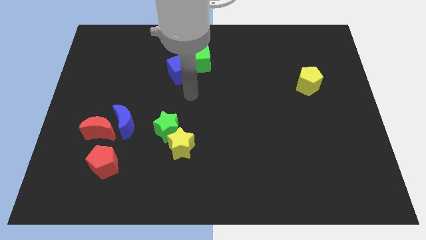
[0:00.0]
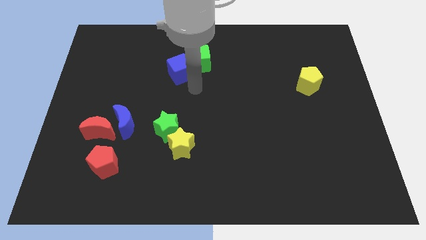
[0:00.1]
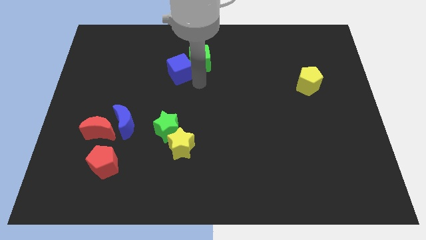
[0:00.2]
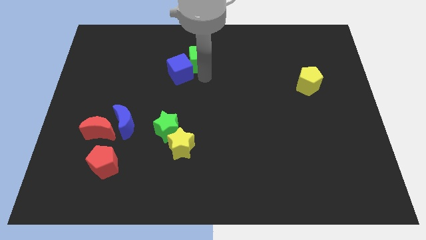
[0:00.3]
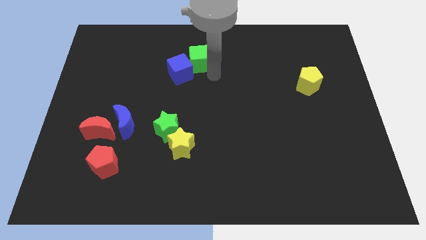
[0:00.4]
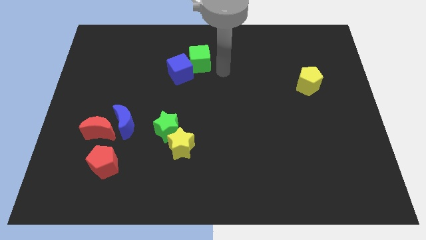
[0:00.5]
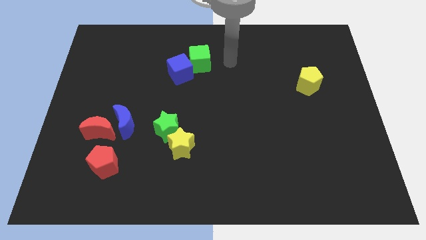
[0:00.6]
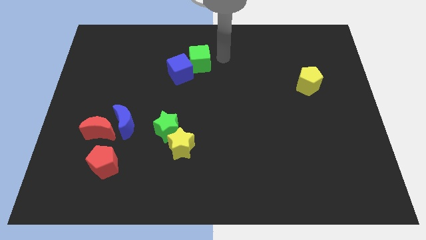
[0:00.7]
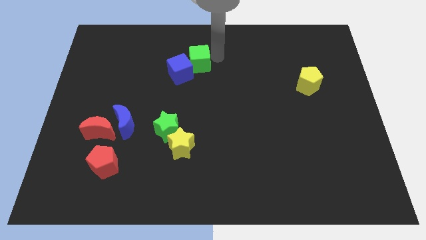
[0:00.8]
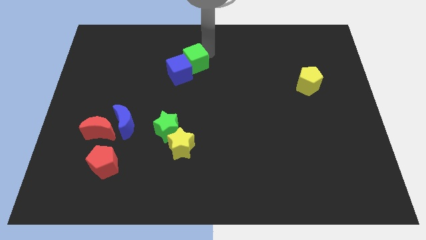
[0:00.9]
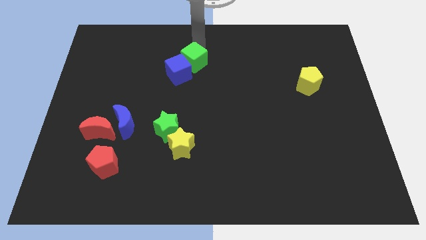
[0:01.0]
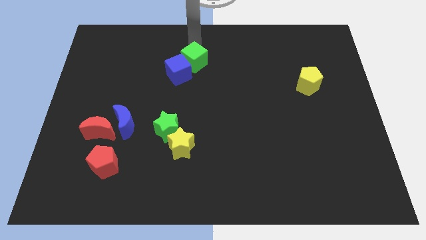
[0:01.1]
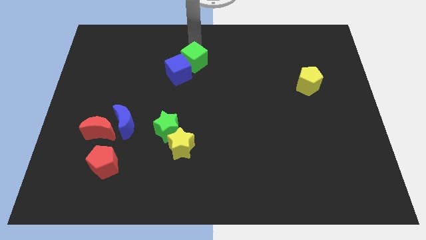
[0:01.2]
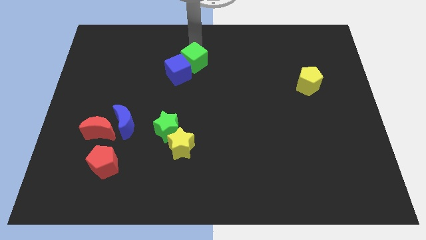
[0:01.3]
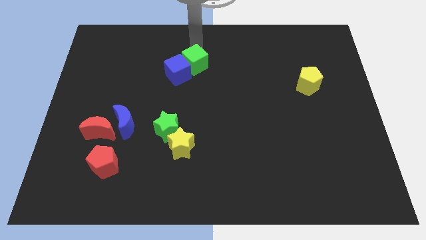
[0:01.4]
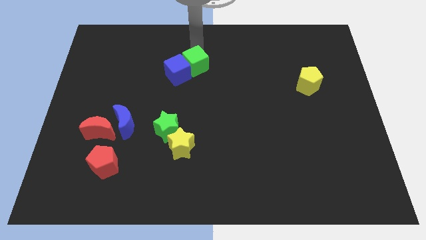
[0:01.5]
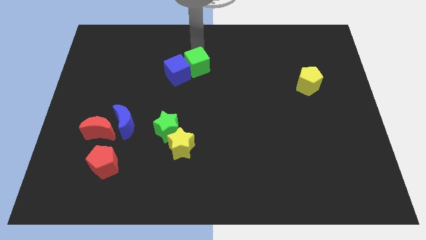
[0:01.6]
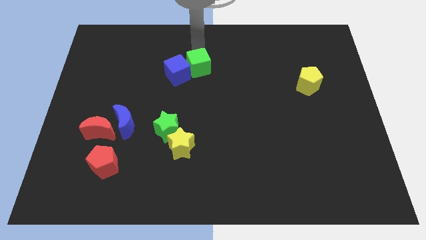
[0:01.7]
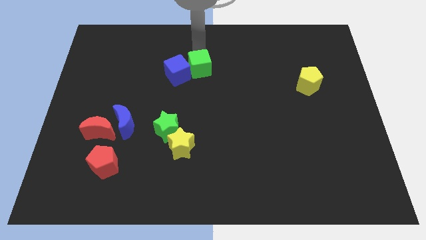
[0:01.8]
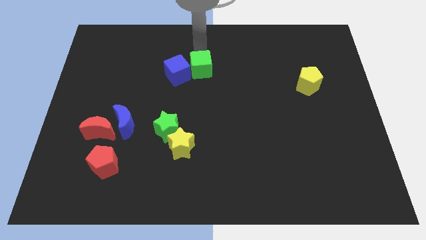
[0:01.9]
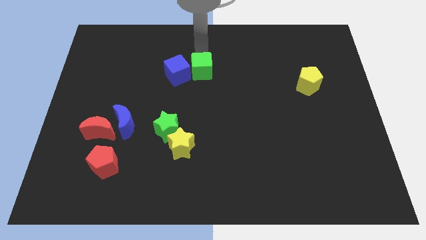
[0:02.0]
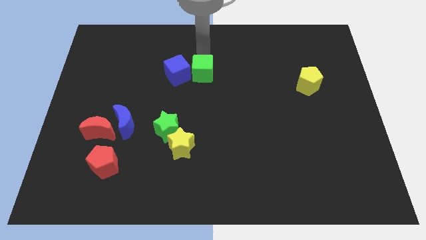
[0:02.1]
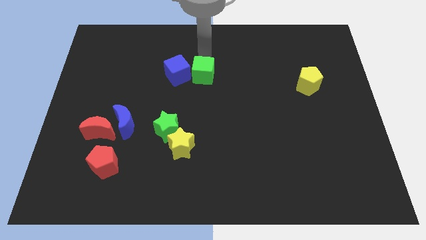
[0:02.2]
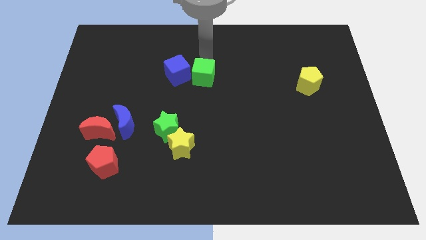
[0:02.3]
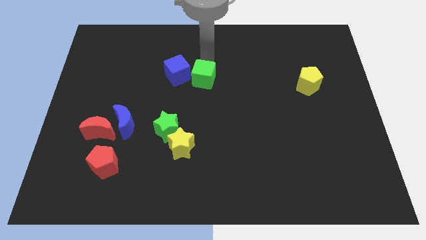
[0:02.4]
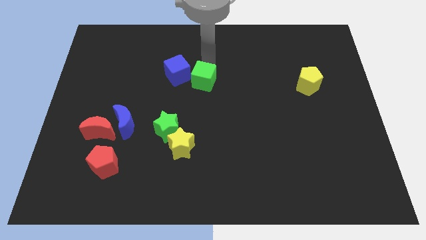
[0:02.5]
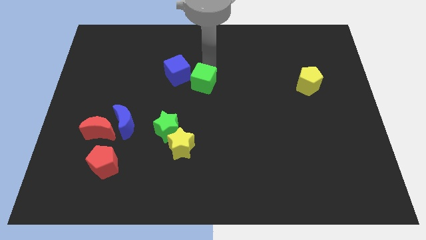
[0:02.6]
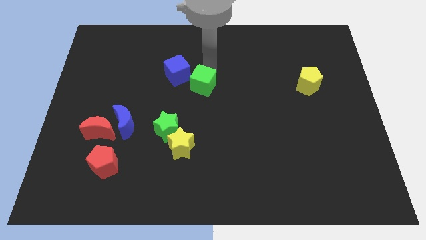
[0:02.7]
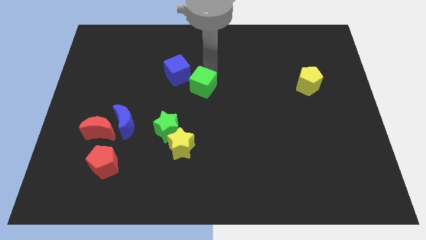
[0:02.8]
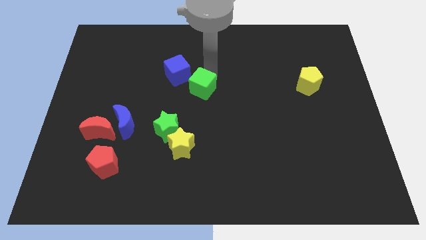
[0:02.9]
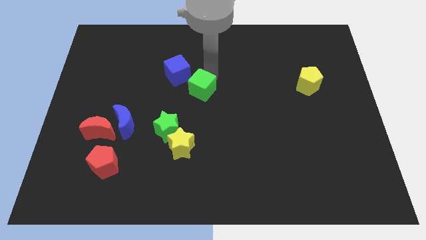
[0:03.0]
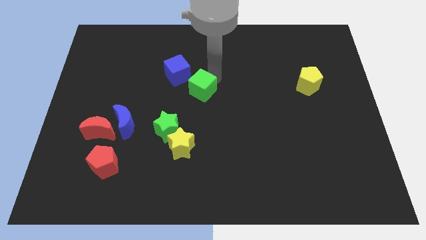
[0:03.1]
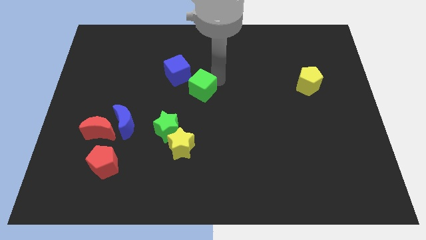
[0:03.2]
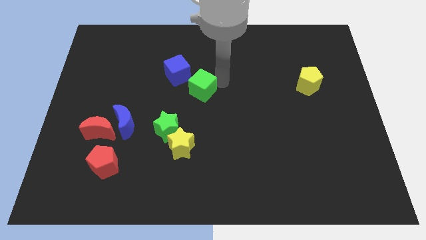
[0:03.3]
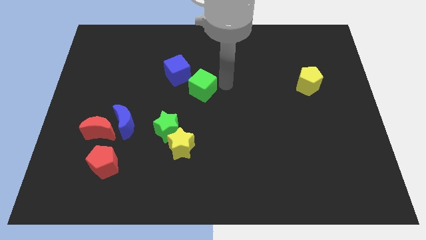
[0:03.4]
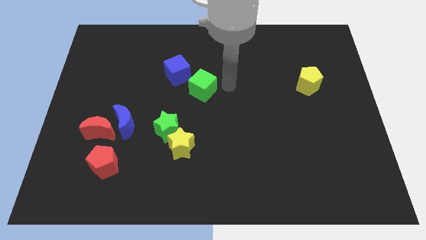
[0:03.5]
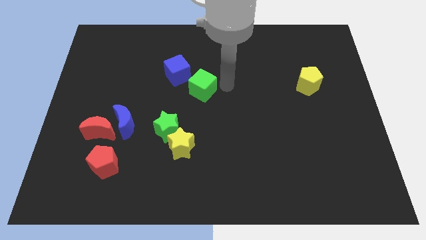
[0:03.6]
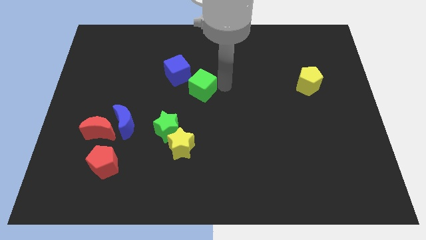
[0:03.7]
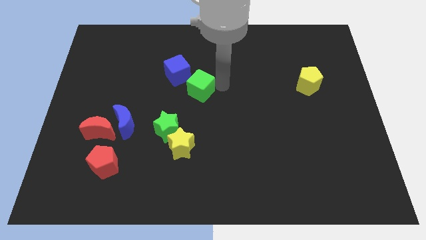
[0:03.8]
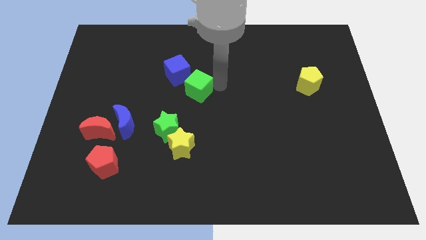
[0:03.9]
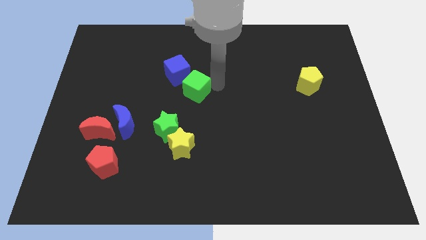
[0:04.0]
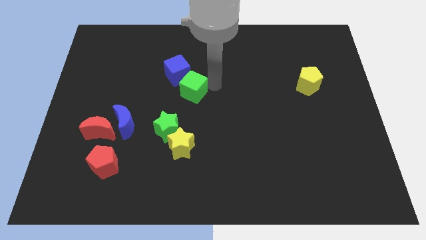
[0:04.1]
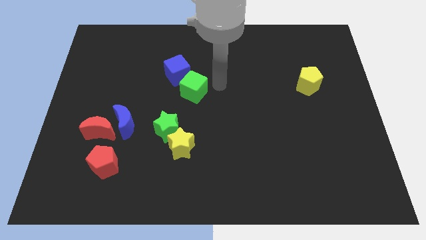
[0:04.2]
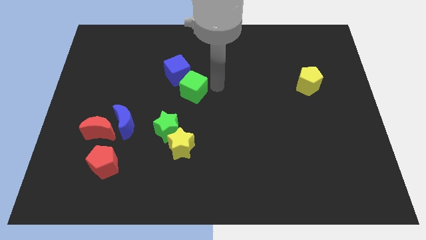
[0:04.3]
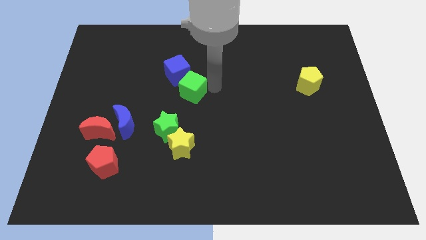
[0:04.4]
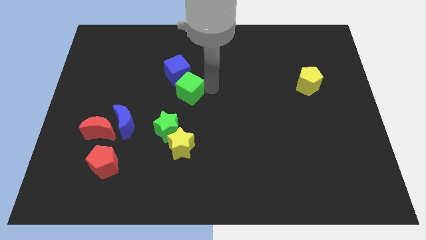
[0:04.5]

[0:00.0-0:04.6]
push the green cube down and then to the left a little

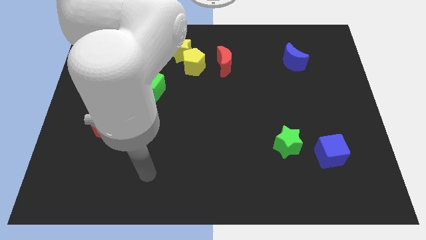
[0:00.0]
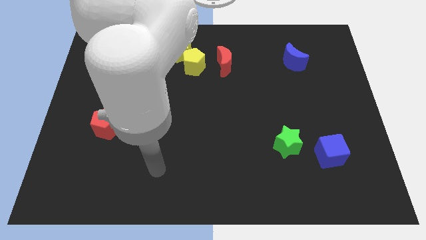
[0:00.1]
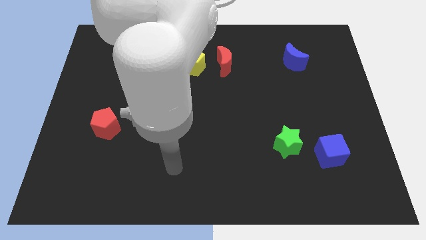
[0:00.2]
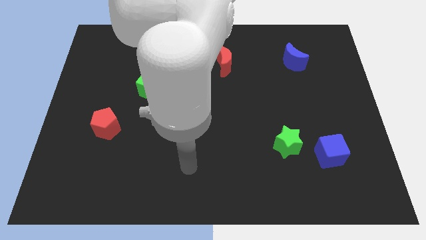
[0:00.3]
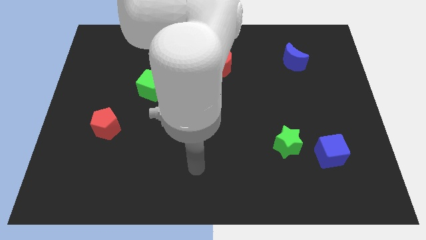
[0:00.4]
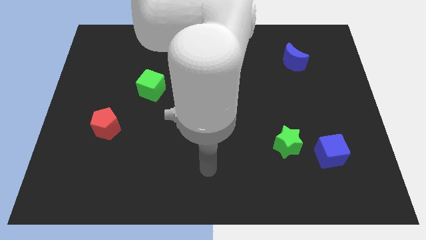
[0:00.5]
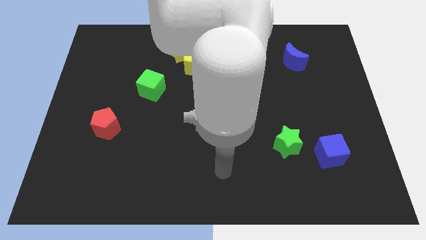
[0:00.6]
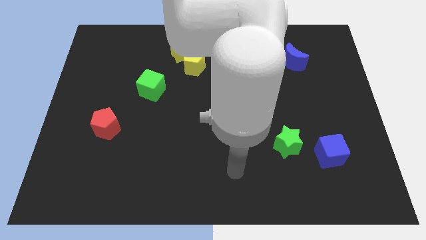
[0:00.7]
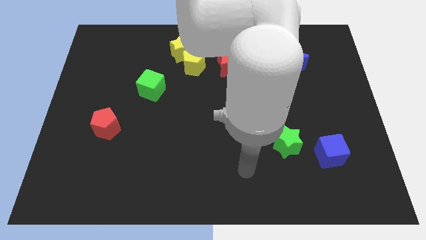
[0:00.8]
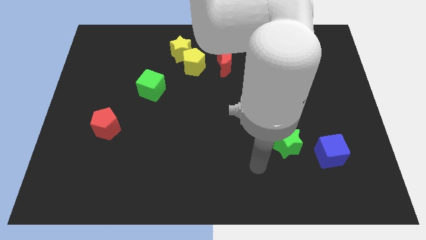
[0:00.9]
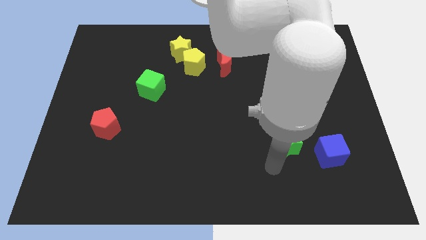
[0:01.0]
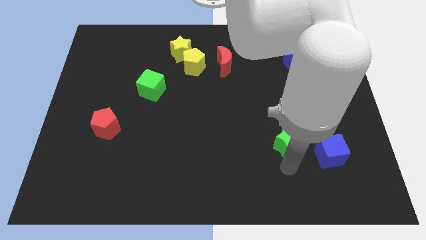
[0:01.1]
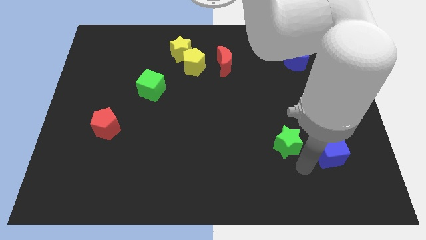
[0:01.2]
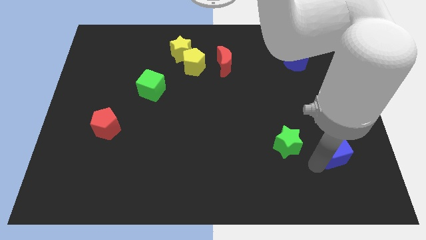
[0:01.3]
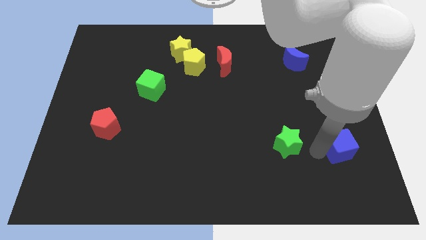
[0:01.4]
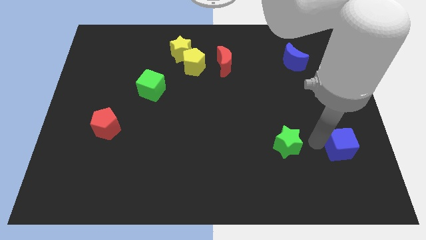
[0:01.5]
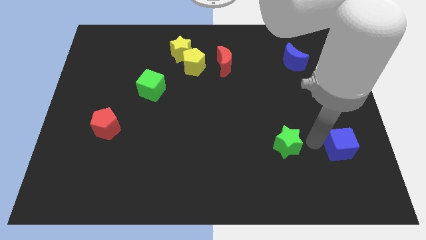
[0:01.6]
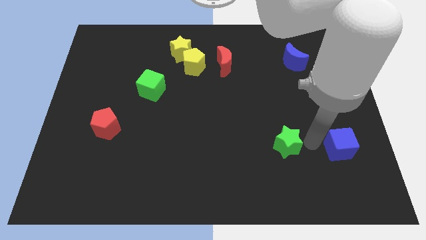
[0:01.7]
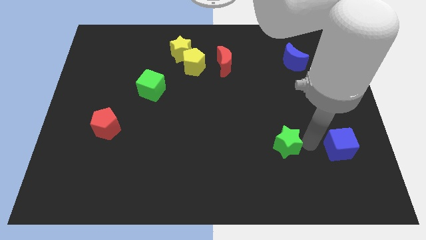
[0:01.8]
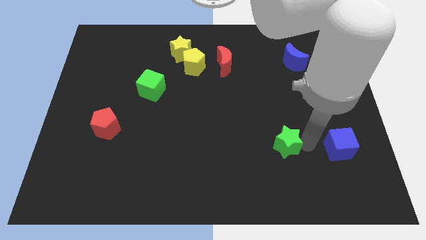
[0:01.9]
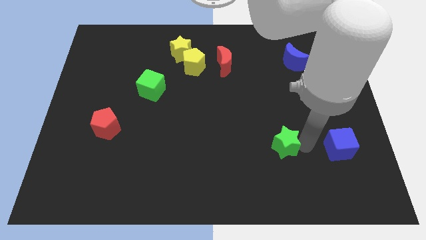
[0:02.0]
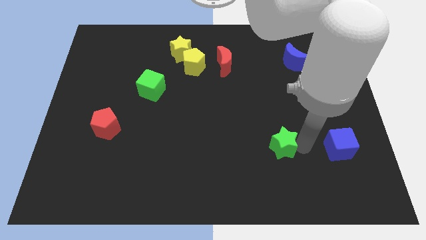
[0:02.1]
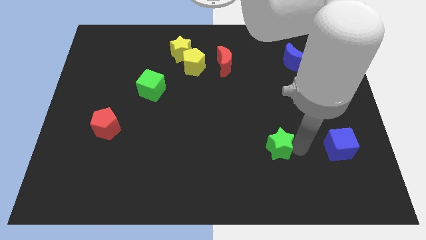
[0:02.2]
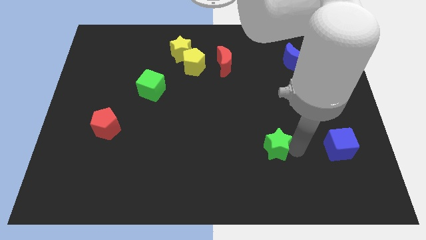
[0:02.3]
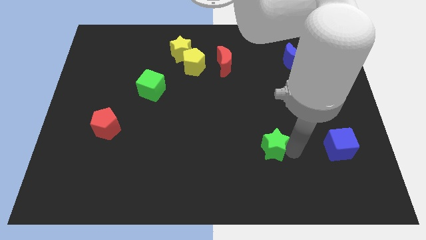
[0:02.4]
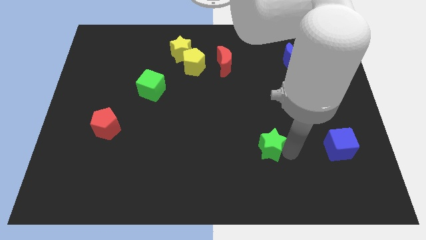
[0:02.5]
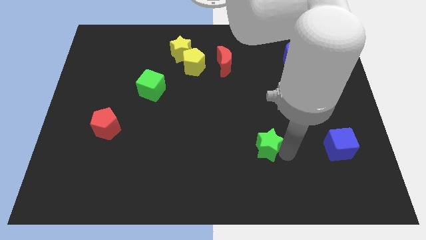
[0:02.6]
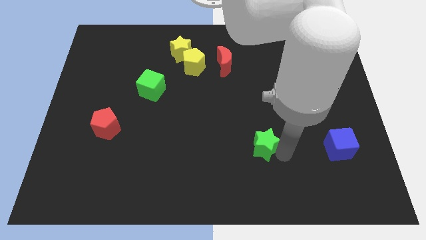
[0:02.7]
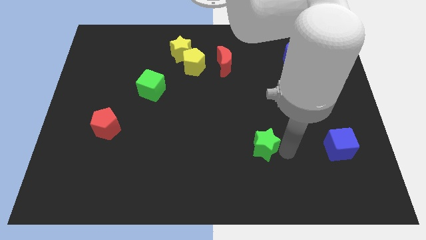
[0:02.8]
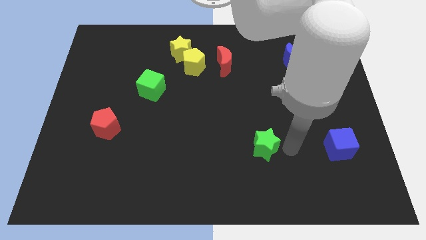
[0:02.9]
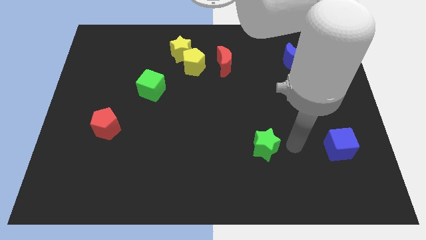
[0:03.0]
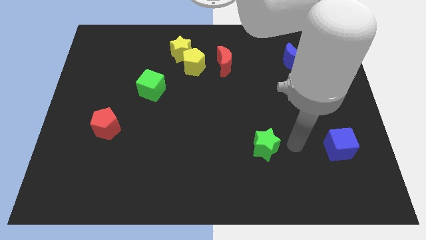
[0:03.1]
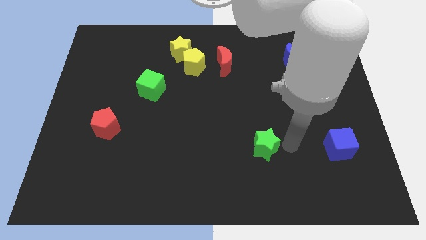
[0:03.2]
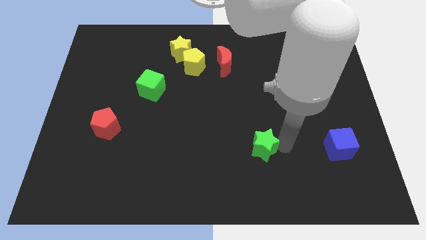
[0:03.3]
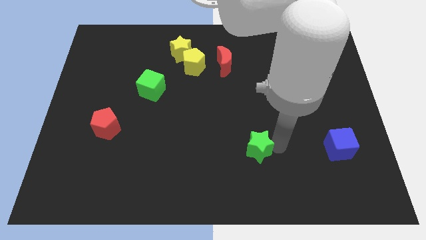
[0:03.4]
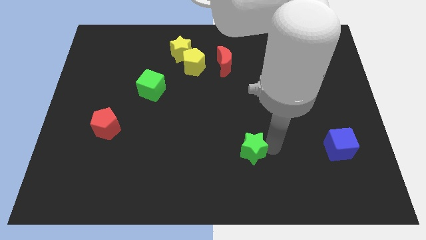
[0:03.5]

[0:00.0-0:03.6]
slightly slide the green star to the left
